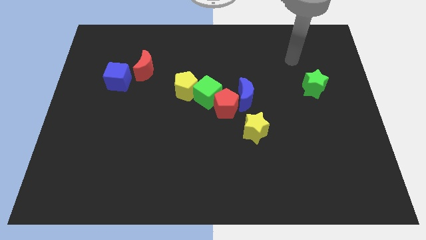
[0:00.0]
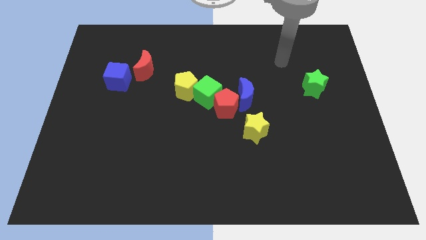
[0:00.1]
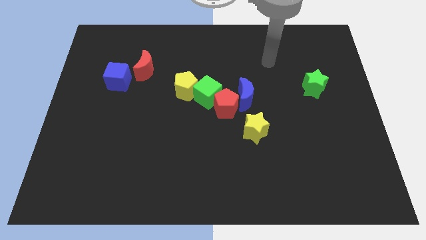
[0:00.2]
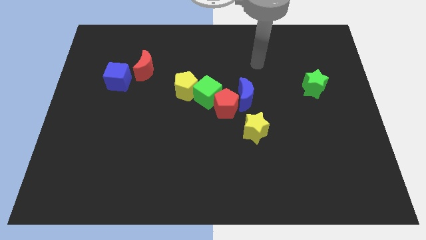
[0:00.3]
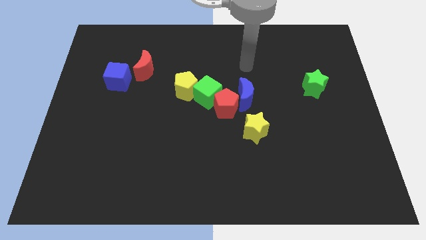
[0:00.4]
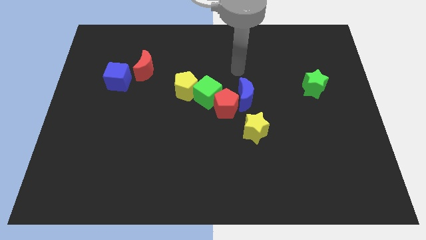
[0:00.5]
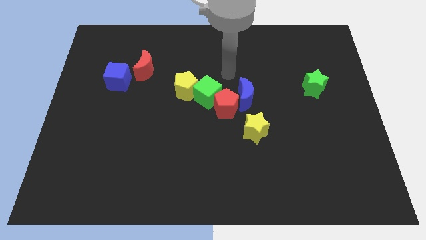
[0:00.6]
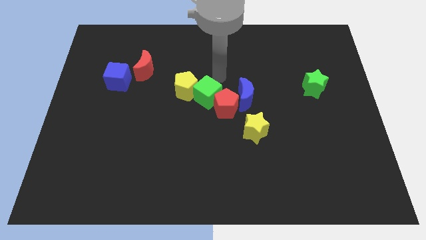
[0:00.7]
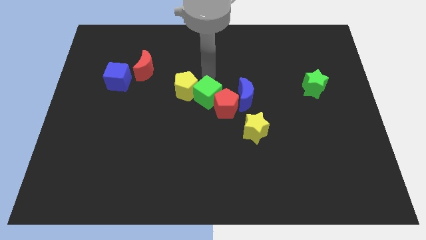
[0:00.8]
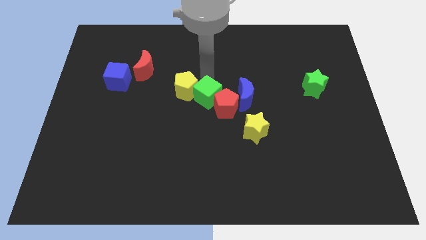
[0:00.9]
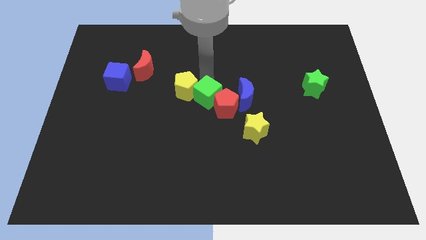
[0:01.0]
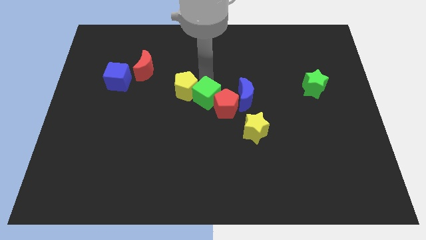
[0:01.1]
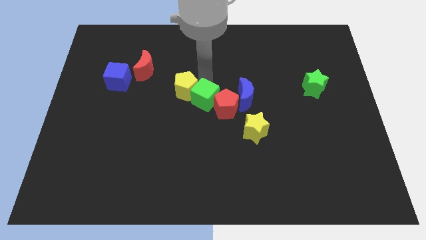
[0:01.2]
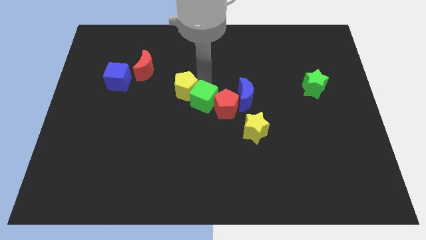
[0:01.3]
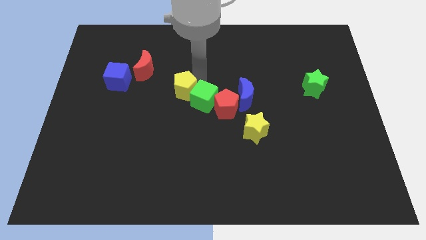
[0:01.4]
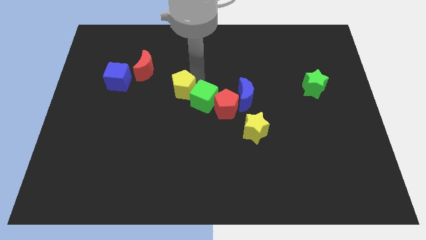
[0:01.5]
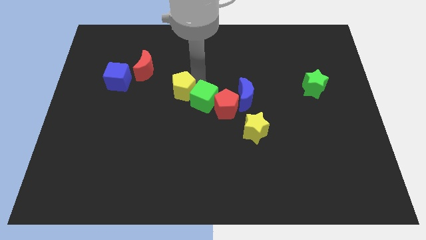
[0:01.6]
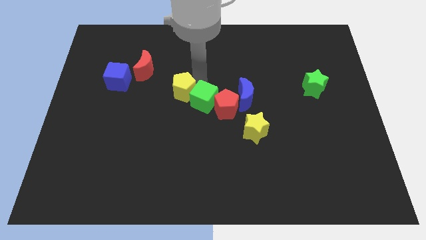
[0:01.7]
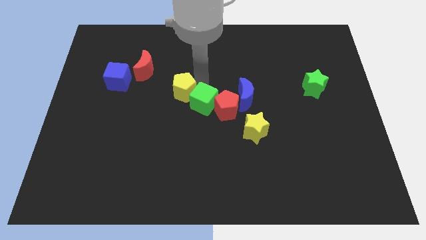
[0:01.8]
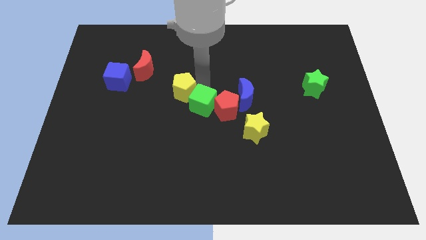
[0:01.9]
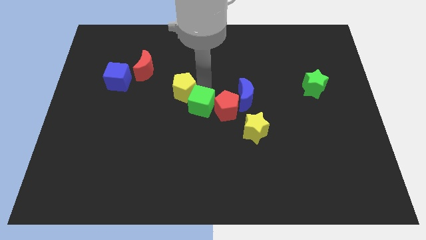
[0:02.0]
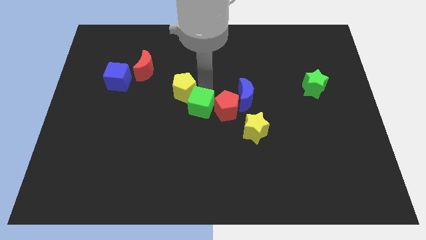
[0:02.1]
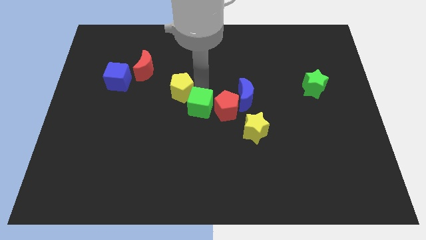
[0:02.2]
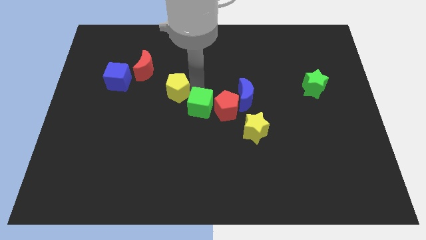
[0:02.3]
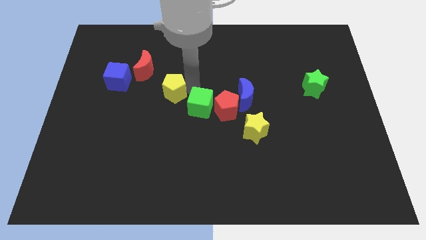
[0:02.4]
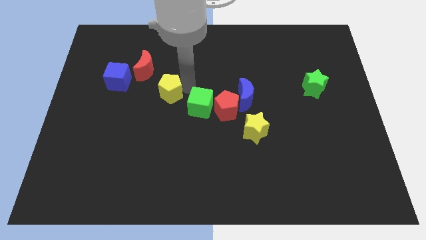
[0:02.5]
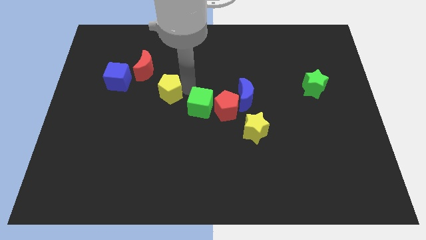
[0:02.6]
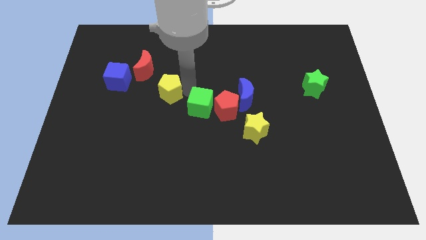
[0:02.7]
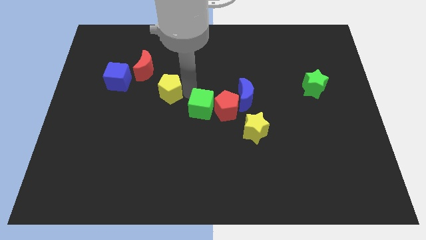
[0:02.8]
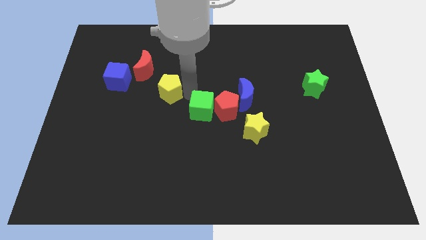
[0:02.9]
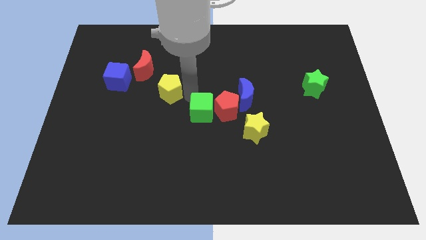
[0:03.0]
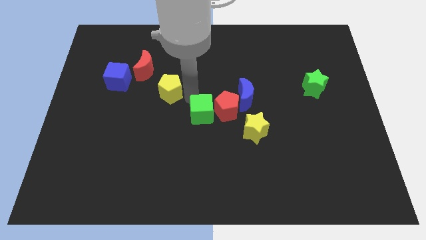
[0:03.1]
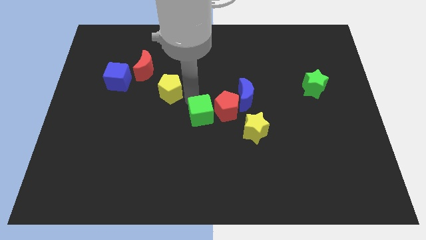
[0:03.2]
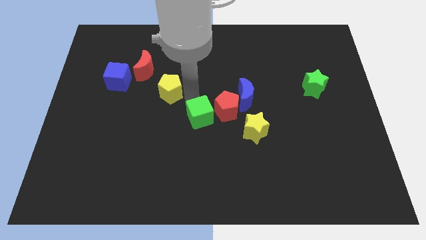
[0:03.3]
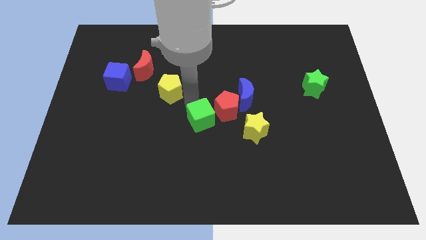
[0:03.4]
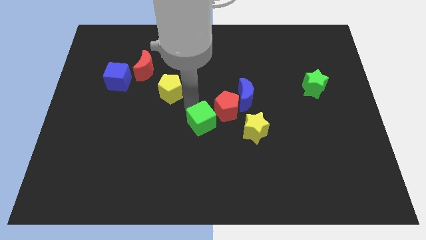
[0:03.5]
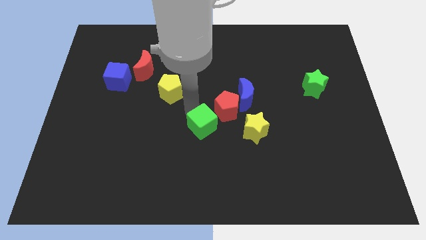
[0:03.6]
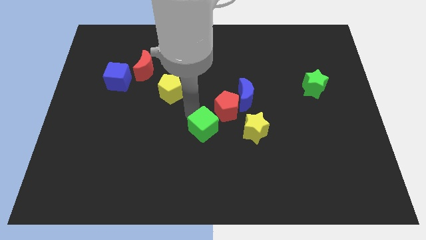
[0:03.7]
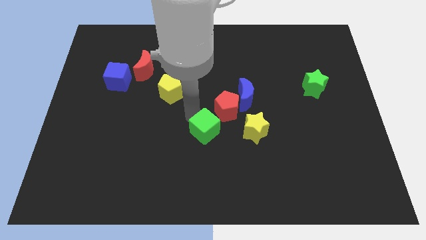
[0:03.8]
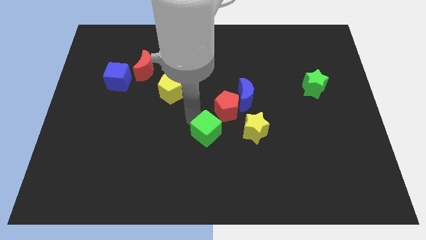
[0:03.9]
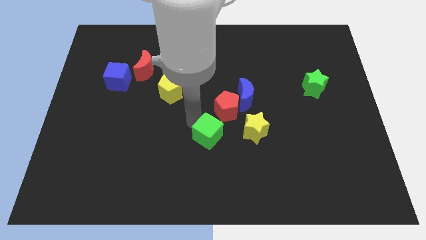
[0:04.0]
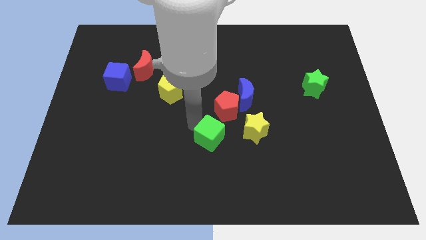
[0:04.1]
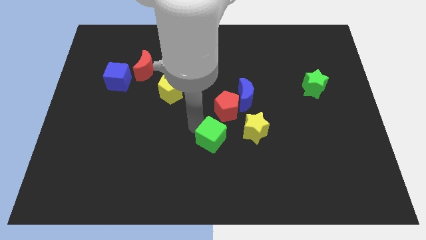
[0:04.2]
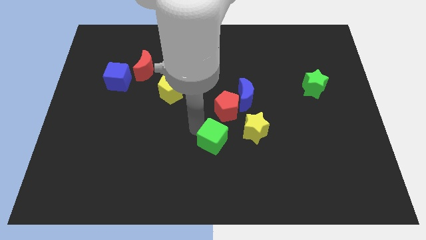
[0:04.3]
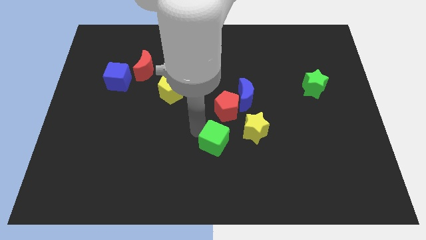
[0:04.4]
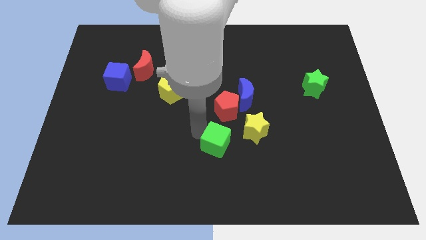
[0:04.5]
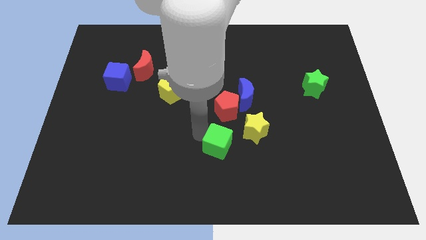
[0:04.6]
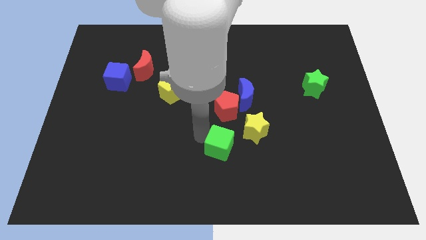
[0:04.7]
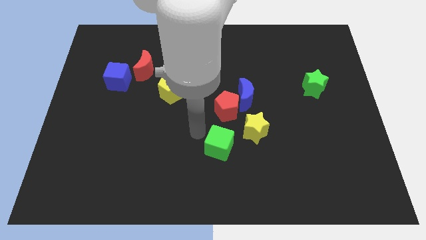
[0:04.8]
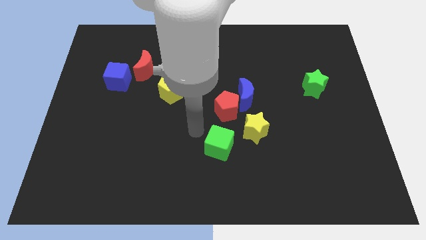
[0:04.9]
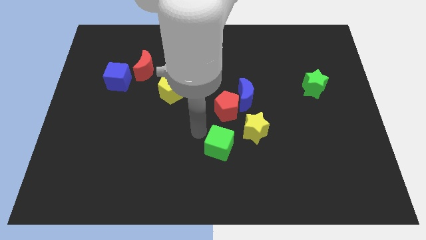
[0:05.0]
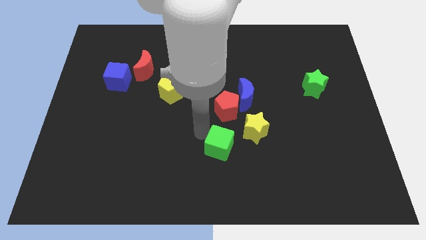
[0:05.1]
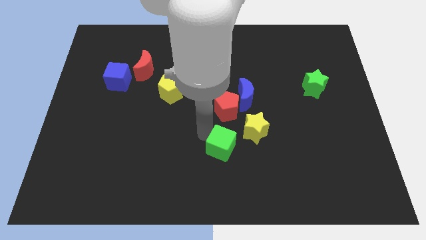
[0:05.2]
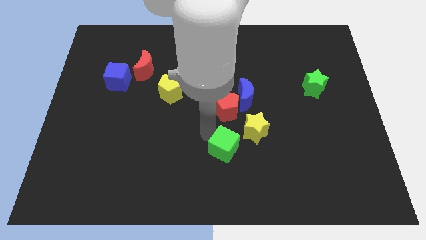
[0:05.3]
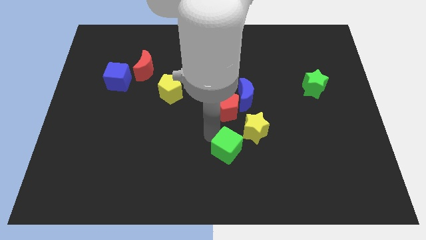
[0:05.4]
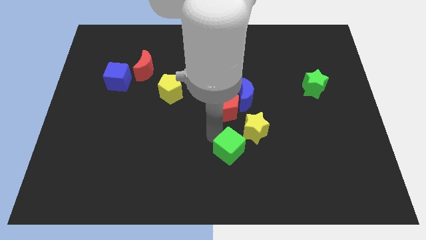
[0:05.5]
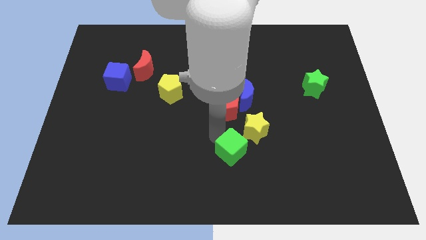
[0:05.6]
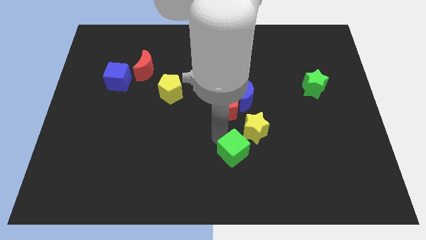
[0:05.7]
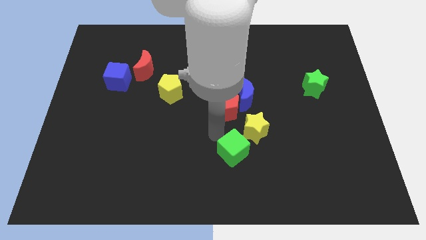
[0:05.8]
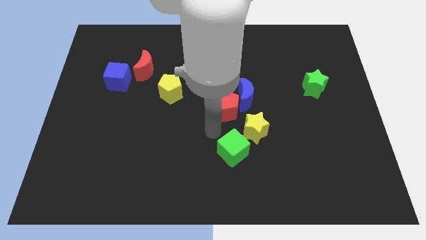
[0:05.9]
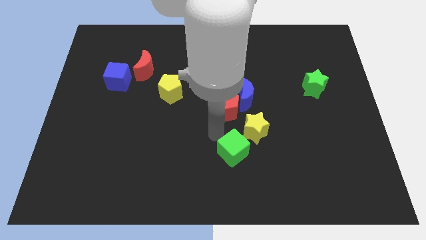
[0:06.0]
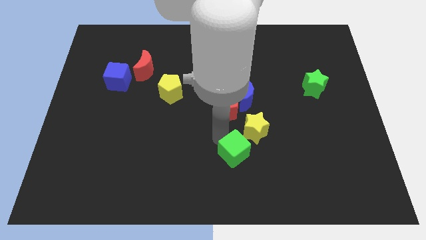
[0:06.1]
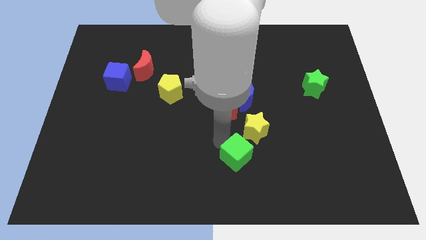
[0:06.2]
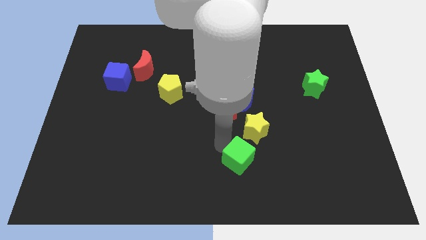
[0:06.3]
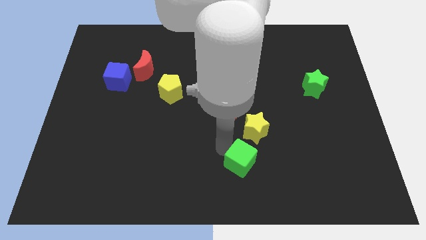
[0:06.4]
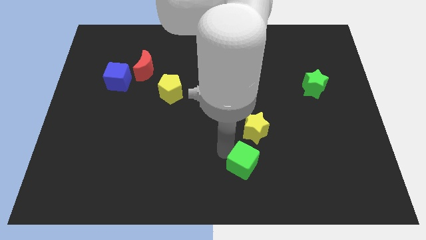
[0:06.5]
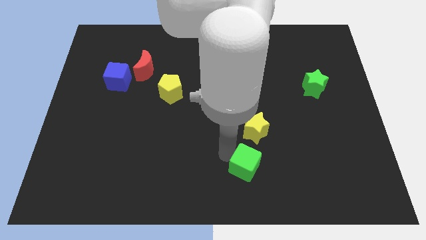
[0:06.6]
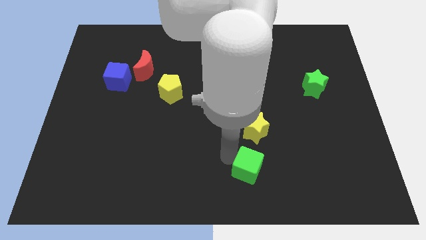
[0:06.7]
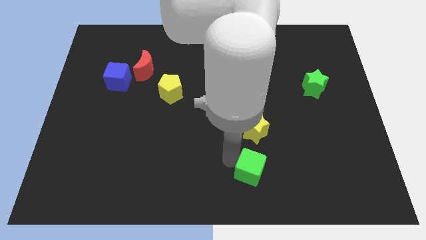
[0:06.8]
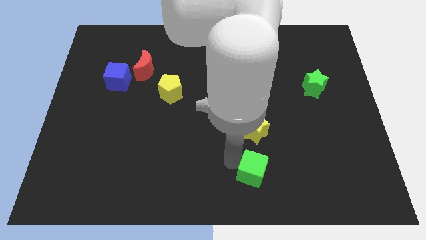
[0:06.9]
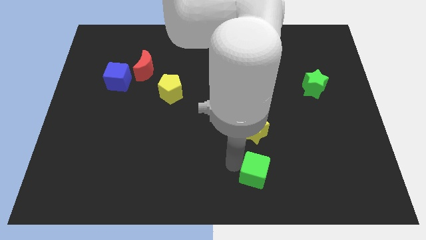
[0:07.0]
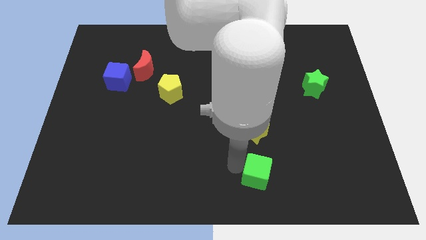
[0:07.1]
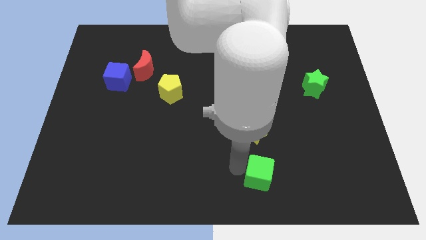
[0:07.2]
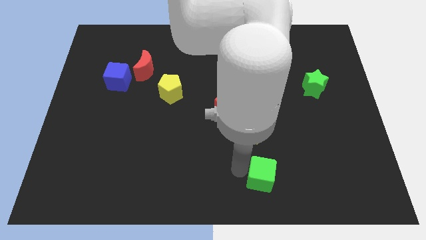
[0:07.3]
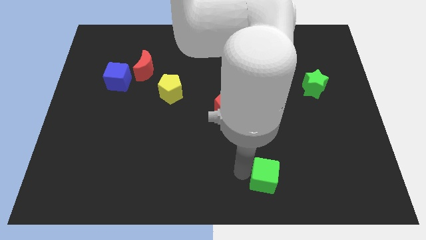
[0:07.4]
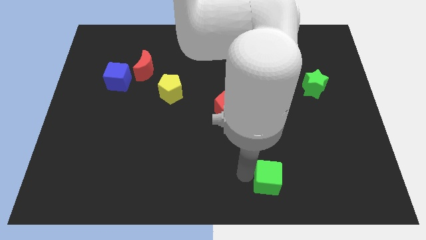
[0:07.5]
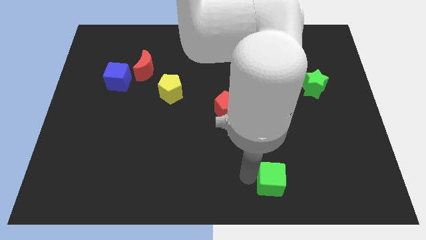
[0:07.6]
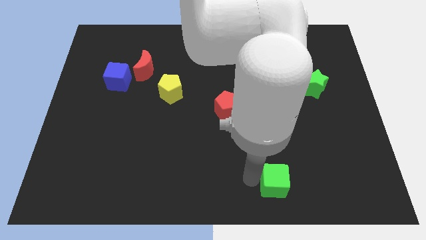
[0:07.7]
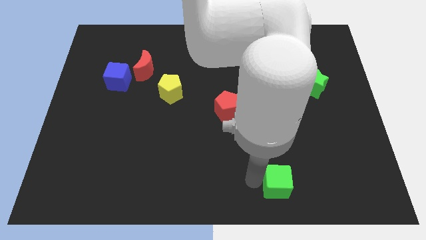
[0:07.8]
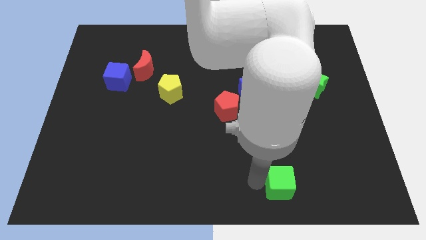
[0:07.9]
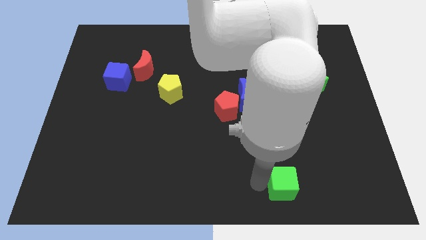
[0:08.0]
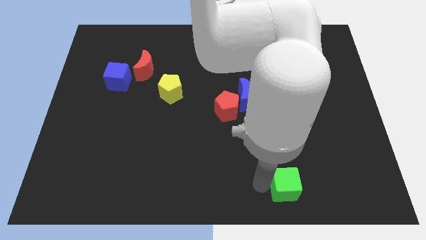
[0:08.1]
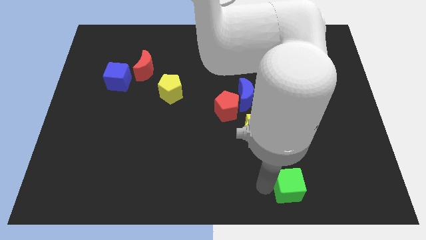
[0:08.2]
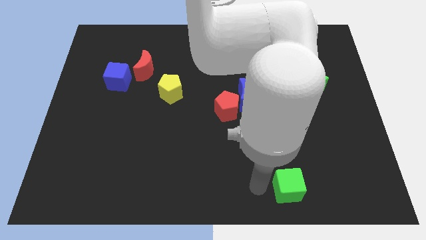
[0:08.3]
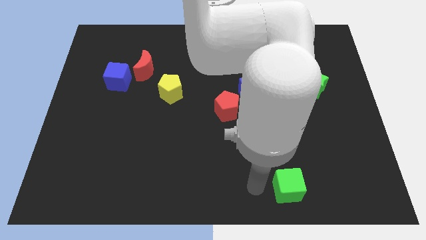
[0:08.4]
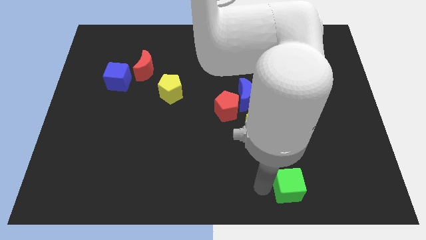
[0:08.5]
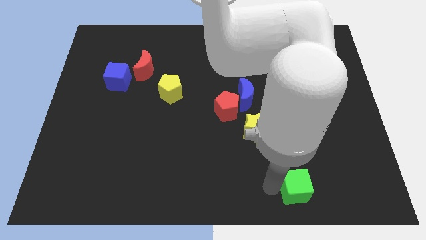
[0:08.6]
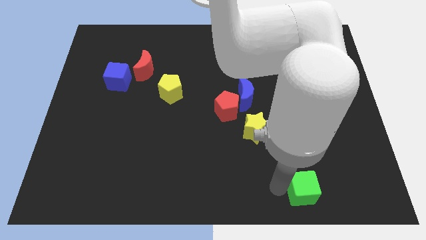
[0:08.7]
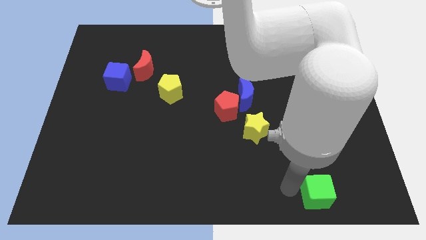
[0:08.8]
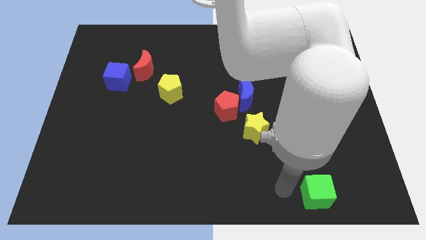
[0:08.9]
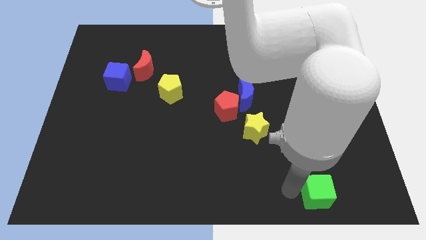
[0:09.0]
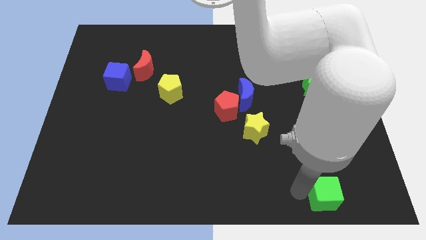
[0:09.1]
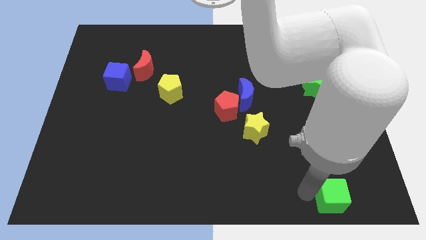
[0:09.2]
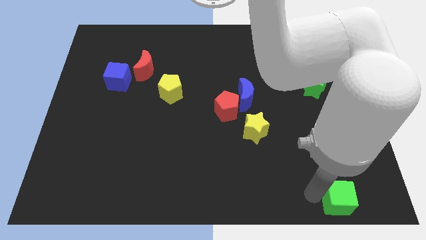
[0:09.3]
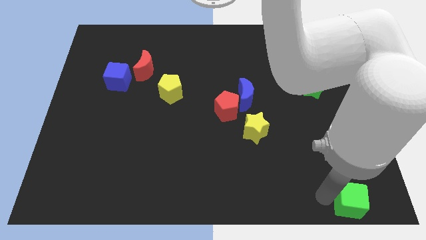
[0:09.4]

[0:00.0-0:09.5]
move the green cube to the bottom right of the board
